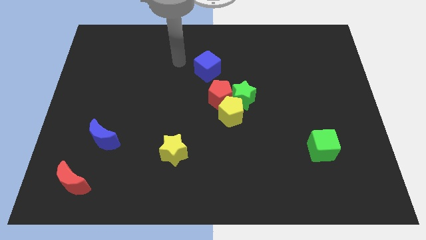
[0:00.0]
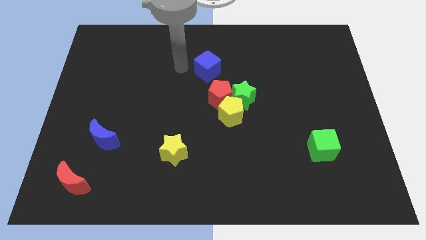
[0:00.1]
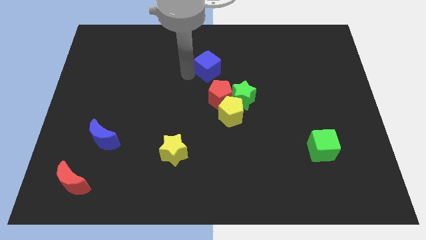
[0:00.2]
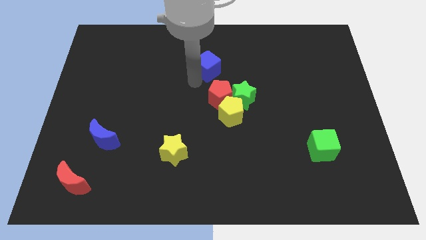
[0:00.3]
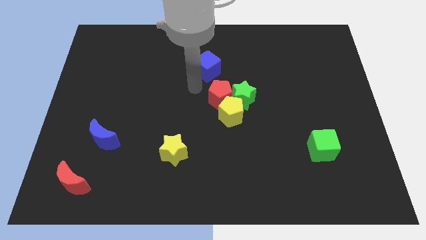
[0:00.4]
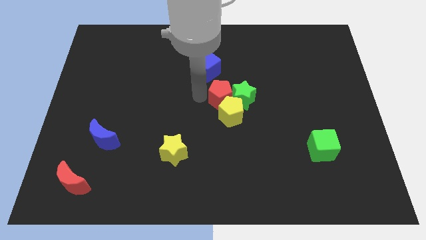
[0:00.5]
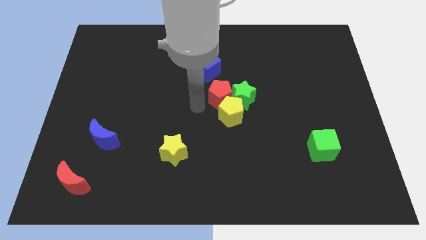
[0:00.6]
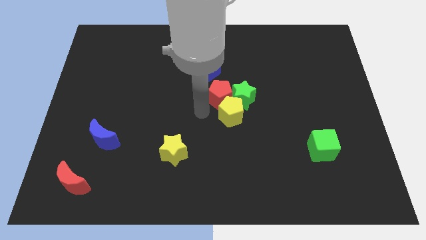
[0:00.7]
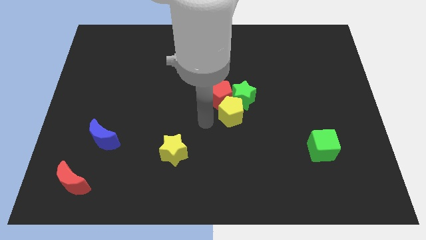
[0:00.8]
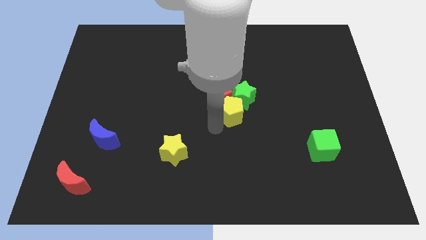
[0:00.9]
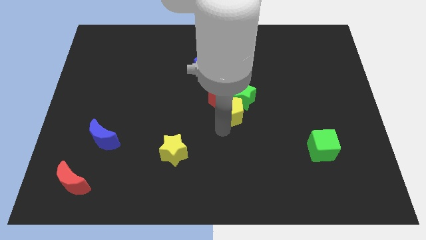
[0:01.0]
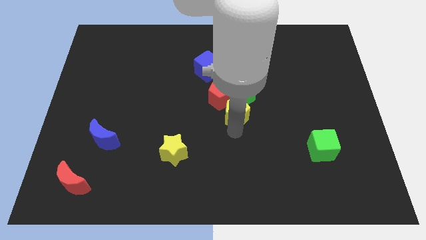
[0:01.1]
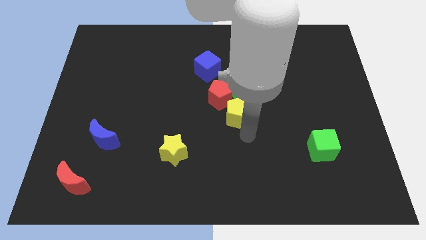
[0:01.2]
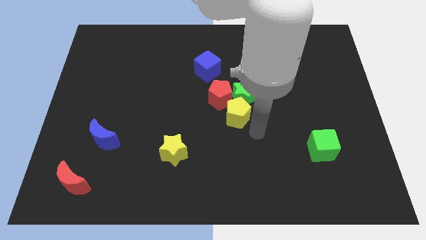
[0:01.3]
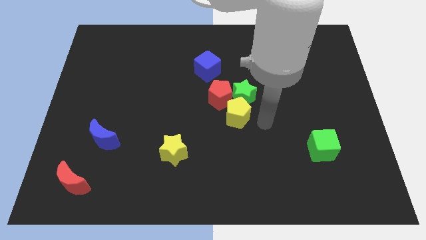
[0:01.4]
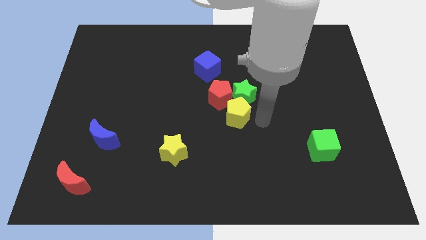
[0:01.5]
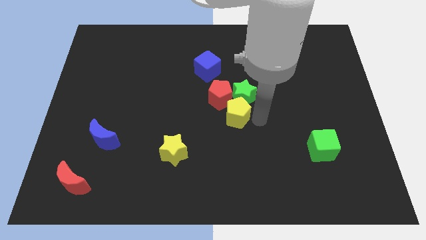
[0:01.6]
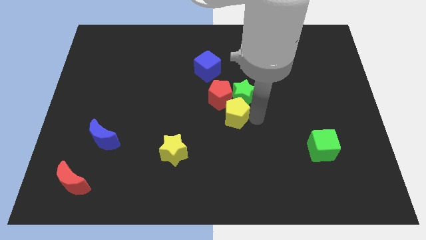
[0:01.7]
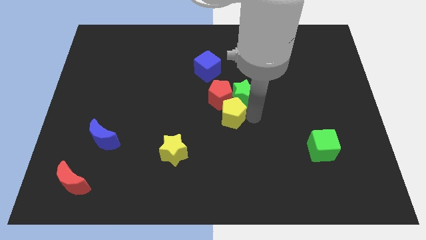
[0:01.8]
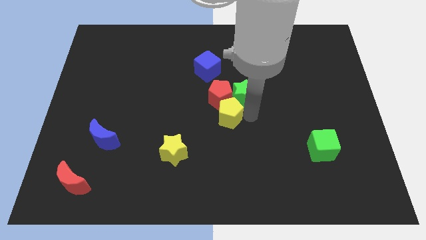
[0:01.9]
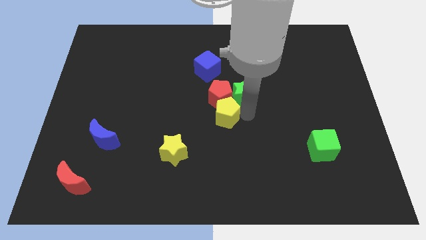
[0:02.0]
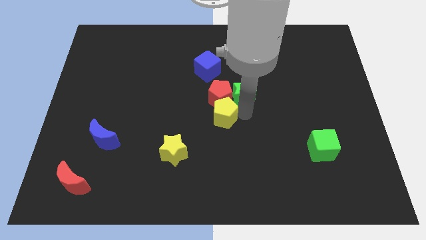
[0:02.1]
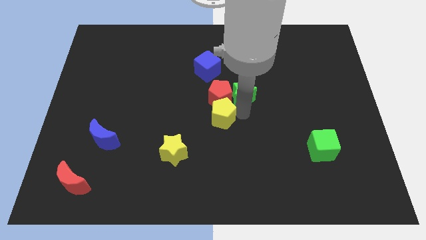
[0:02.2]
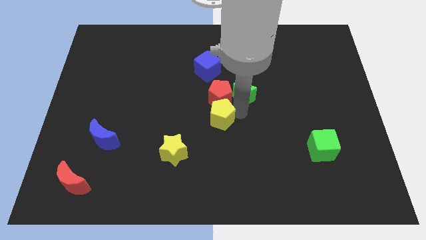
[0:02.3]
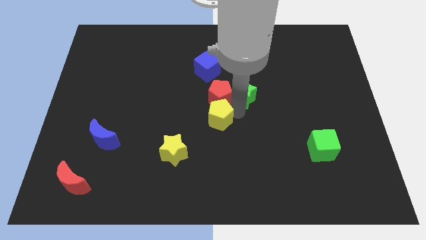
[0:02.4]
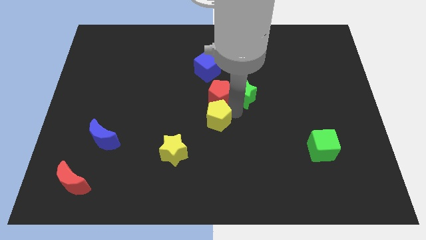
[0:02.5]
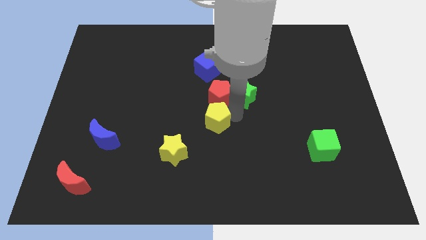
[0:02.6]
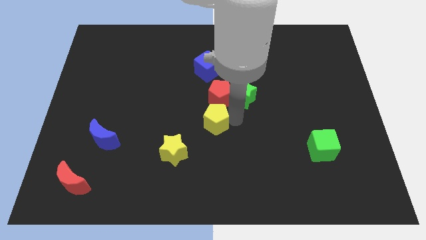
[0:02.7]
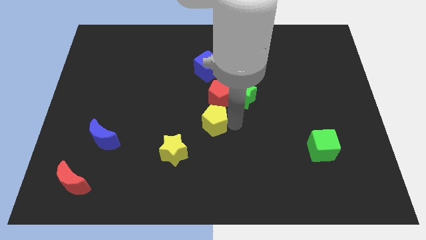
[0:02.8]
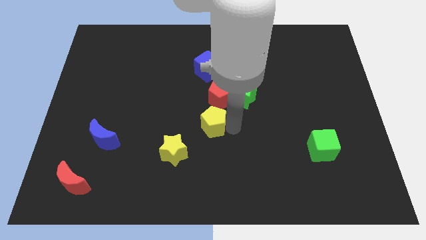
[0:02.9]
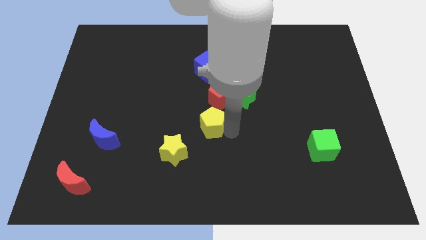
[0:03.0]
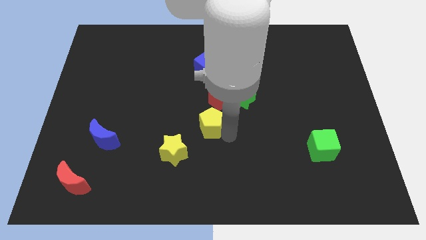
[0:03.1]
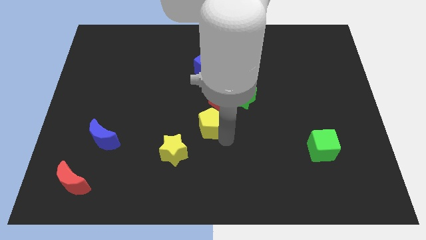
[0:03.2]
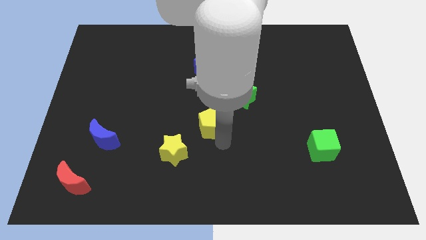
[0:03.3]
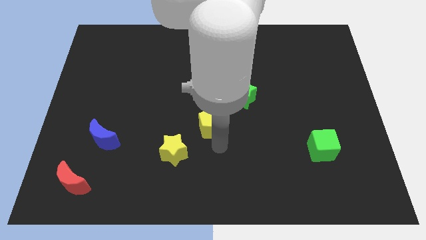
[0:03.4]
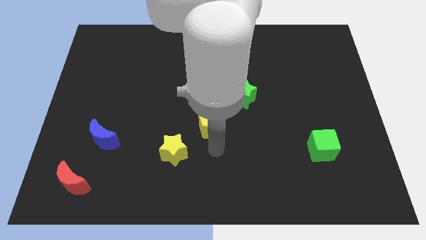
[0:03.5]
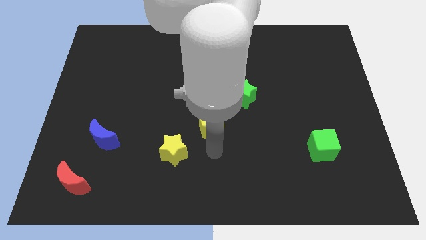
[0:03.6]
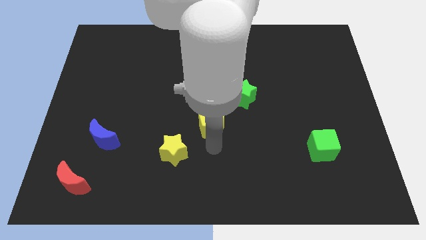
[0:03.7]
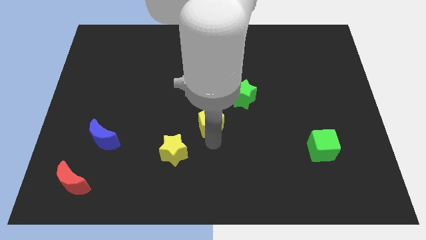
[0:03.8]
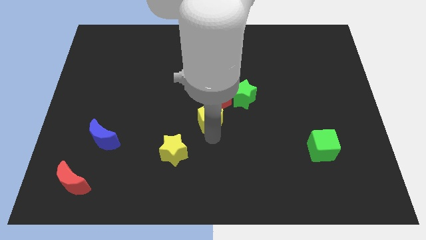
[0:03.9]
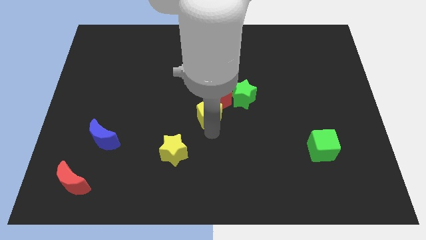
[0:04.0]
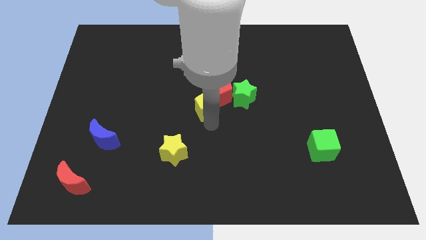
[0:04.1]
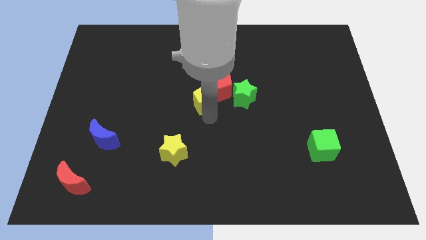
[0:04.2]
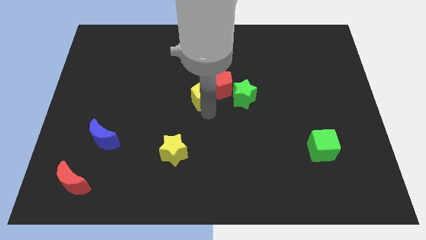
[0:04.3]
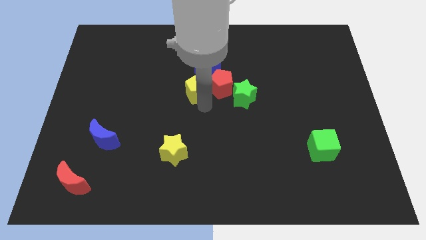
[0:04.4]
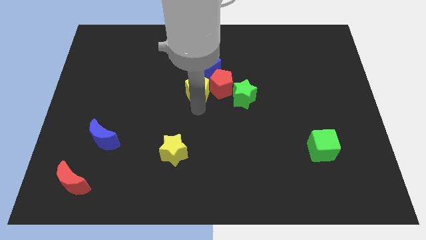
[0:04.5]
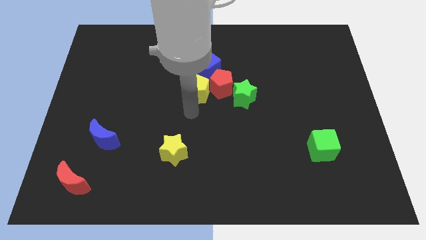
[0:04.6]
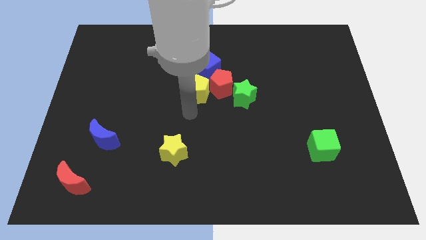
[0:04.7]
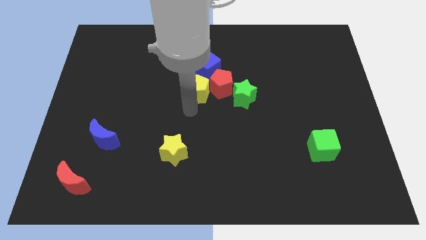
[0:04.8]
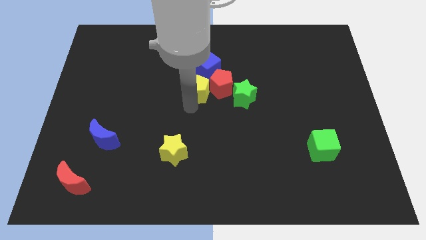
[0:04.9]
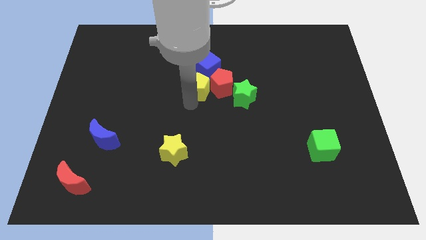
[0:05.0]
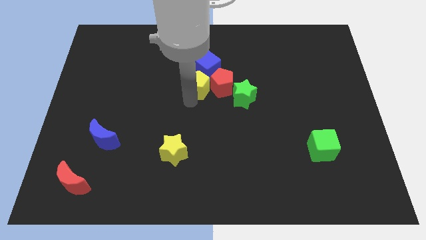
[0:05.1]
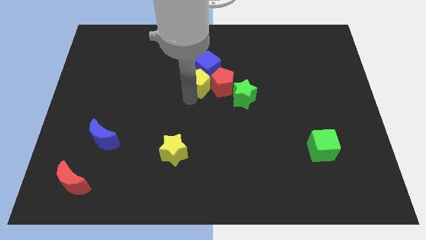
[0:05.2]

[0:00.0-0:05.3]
move the yellow pentagon to the blue cube

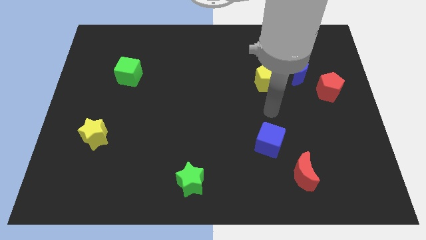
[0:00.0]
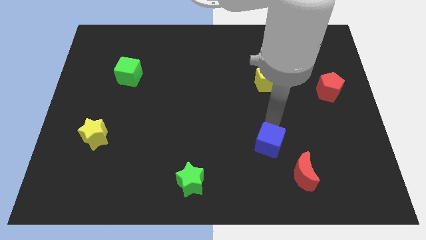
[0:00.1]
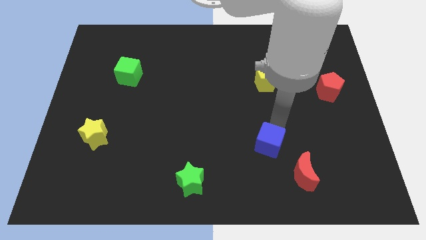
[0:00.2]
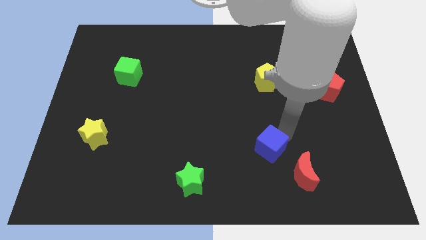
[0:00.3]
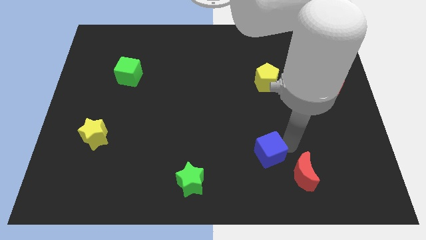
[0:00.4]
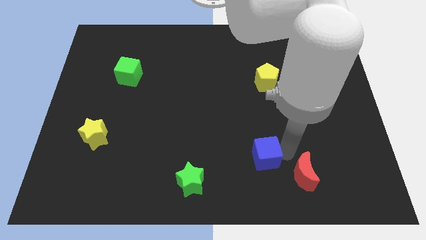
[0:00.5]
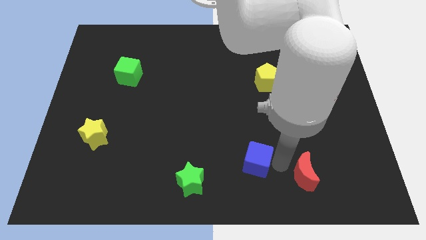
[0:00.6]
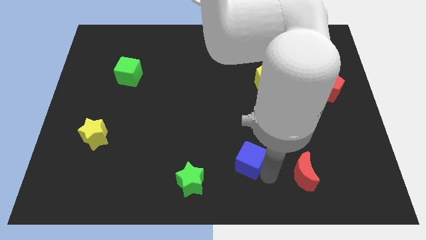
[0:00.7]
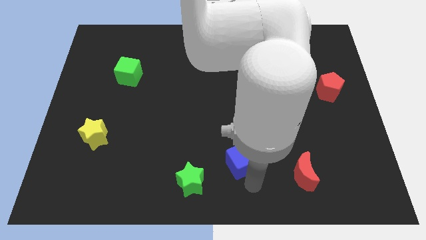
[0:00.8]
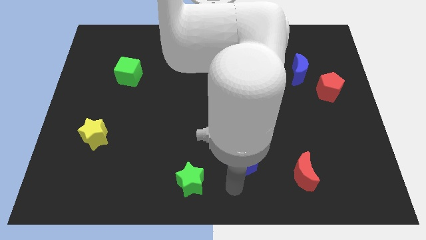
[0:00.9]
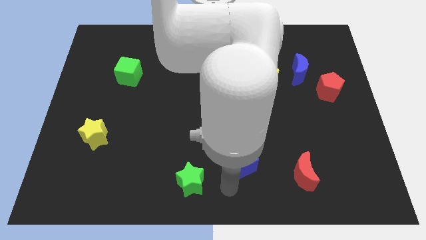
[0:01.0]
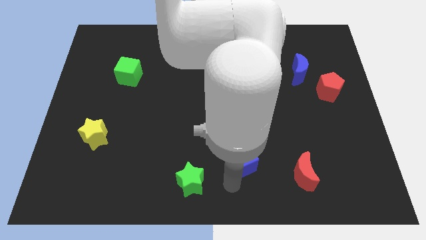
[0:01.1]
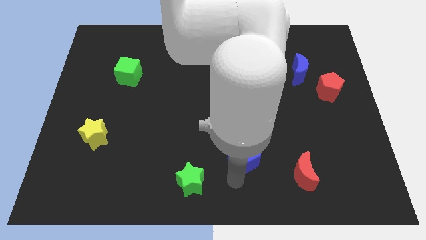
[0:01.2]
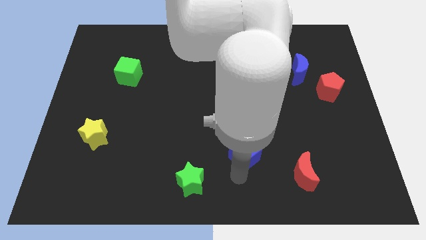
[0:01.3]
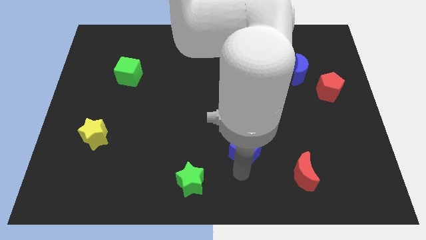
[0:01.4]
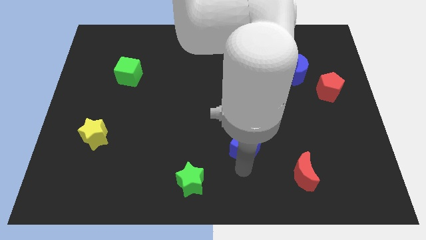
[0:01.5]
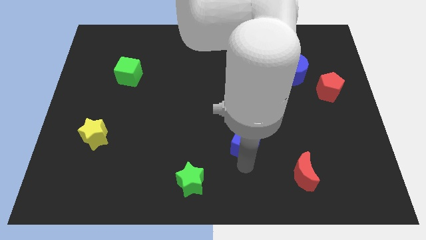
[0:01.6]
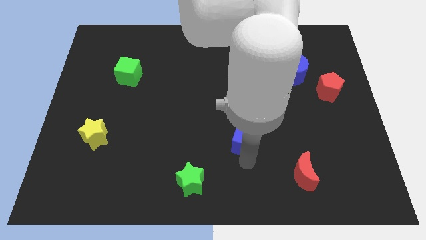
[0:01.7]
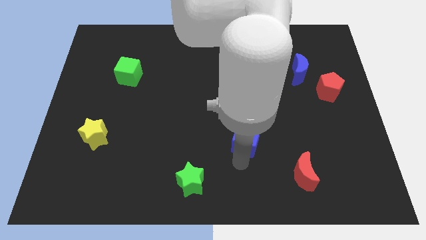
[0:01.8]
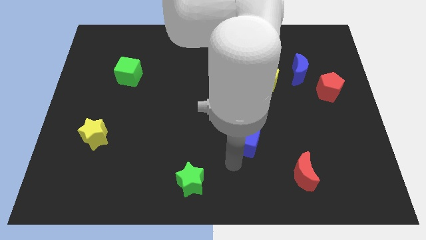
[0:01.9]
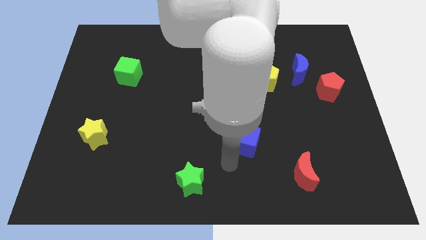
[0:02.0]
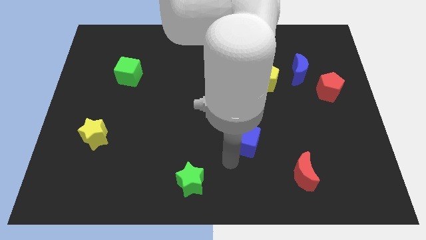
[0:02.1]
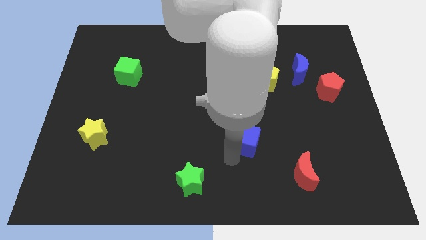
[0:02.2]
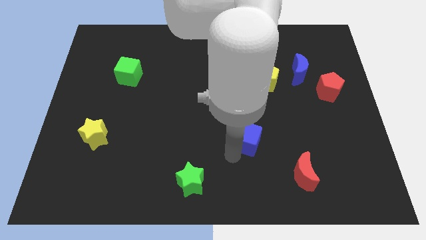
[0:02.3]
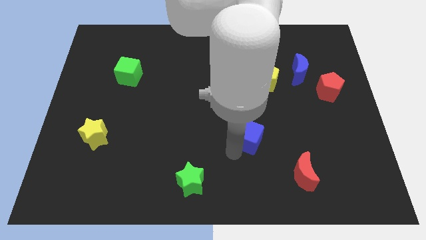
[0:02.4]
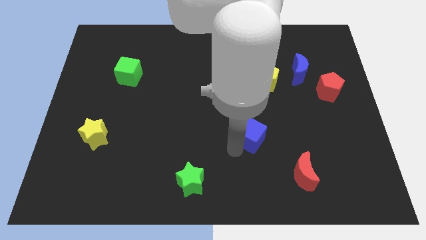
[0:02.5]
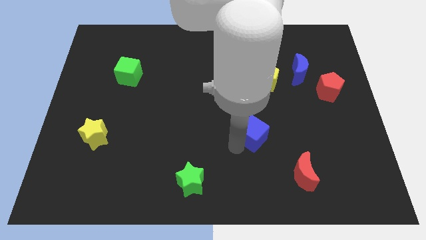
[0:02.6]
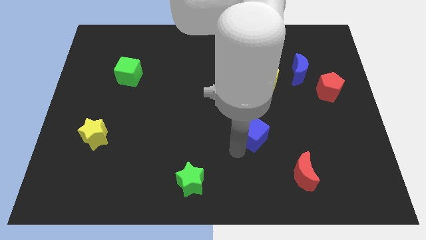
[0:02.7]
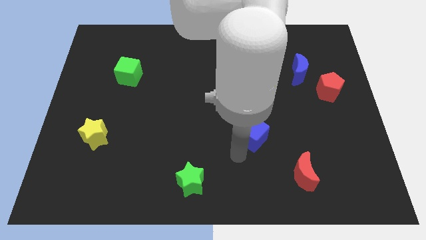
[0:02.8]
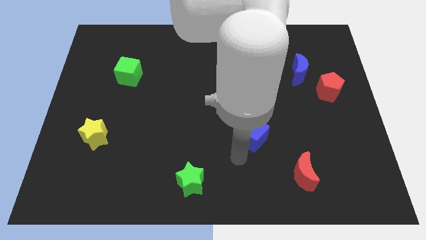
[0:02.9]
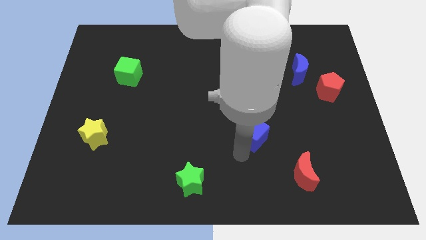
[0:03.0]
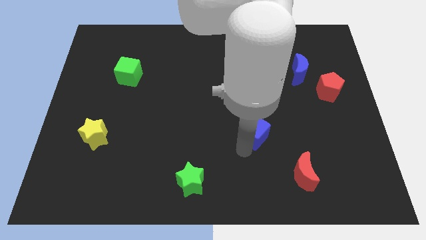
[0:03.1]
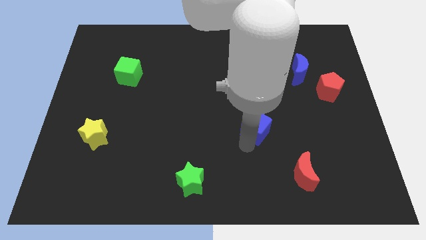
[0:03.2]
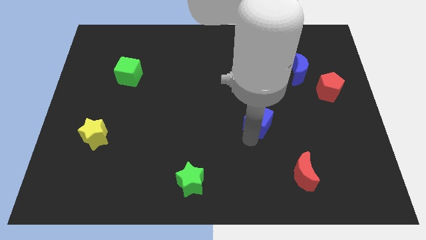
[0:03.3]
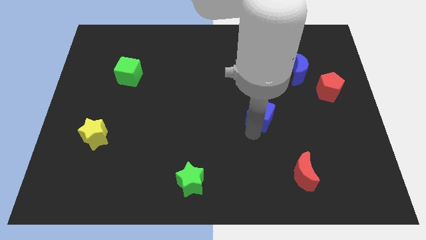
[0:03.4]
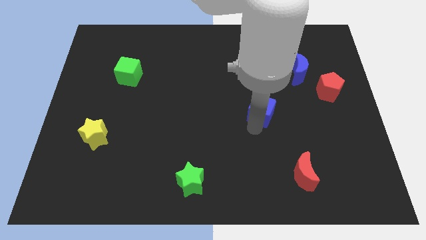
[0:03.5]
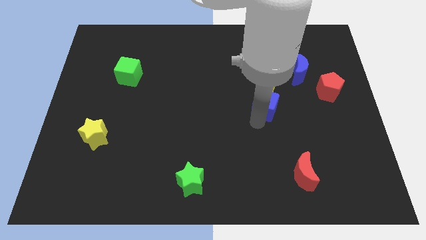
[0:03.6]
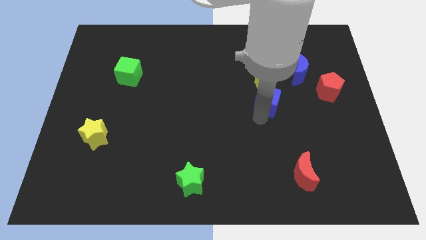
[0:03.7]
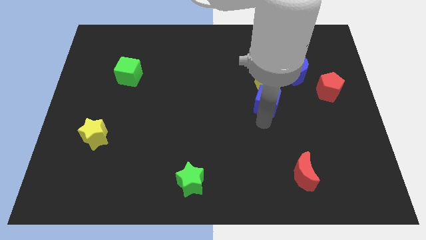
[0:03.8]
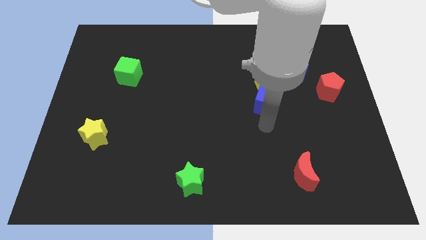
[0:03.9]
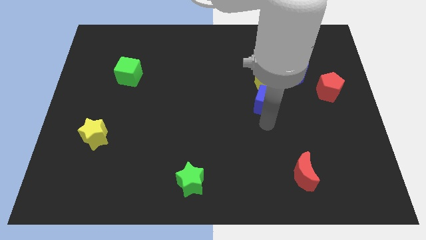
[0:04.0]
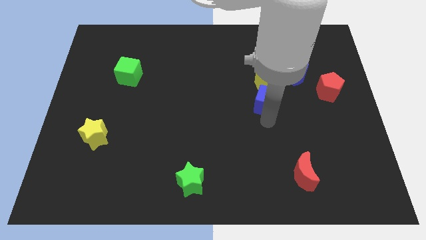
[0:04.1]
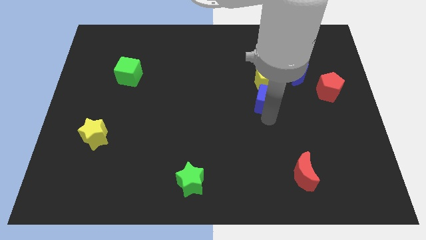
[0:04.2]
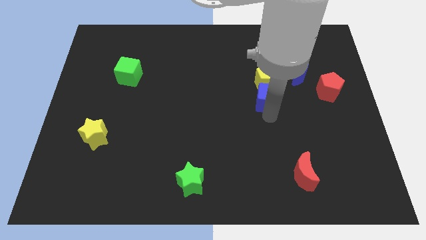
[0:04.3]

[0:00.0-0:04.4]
move the blue cube next to the yellow pentagon
